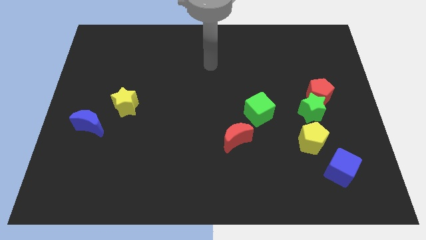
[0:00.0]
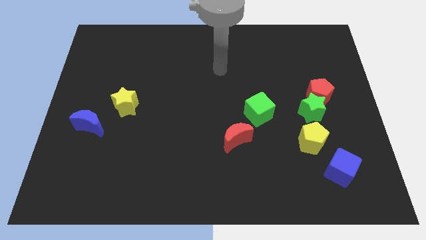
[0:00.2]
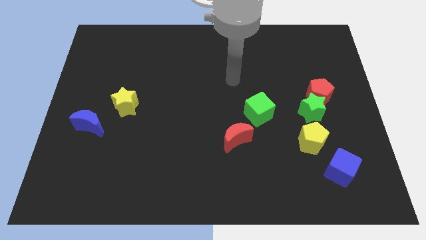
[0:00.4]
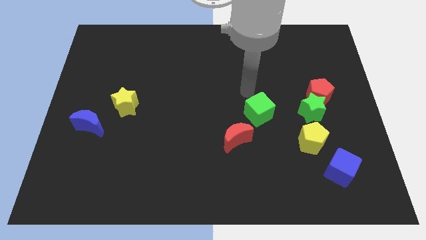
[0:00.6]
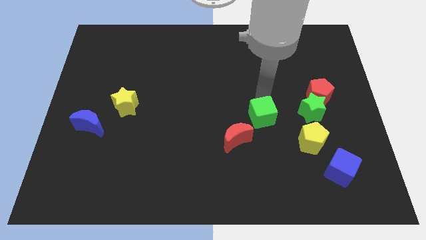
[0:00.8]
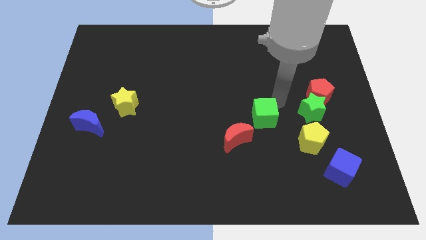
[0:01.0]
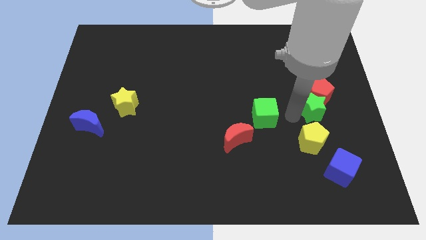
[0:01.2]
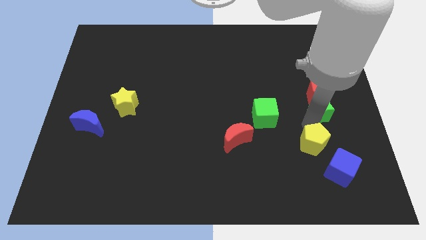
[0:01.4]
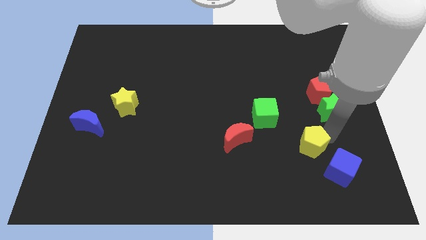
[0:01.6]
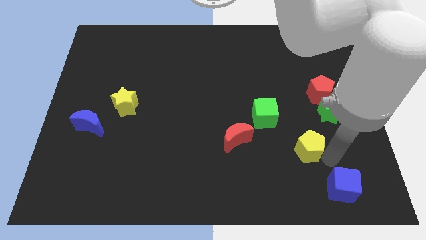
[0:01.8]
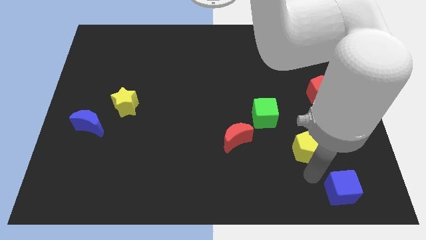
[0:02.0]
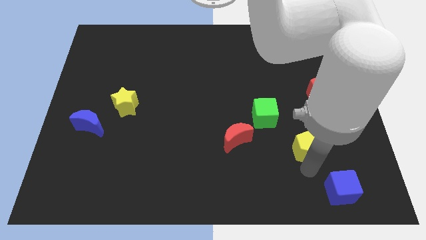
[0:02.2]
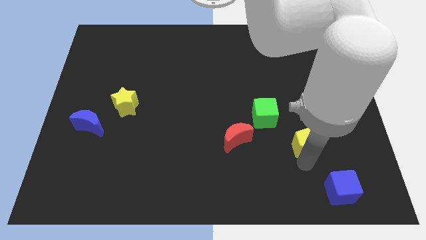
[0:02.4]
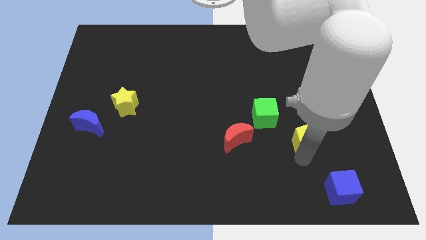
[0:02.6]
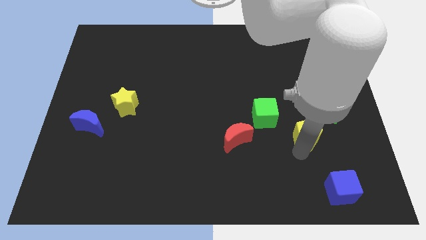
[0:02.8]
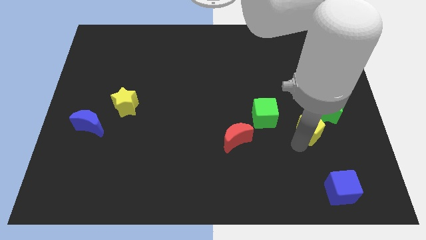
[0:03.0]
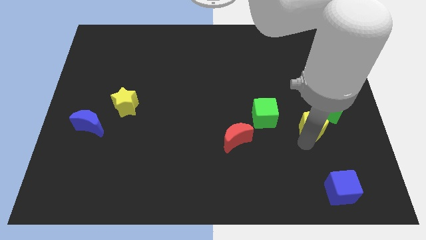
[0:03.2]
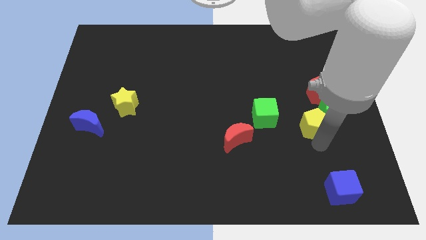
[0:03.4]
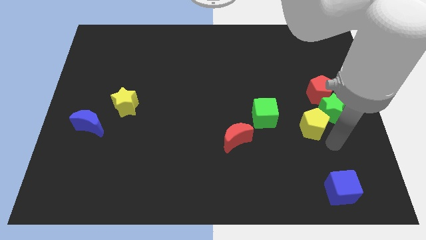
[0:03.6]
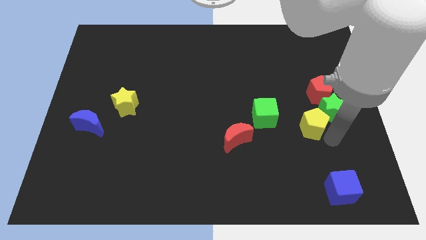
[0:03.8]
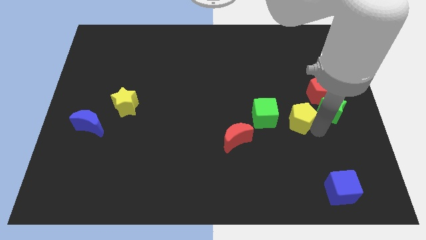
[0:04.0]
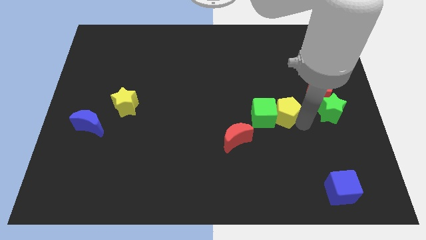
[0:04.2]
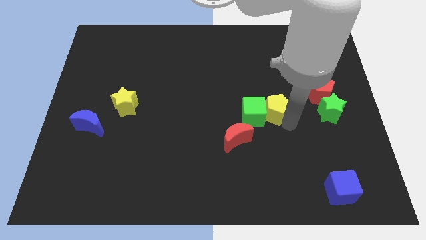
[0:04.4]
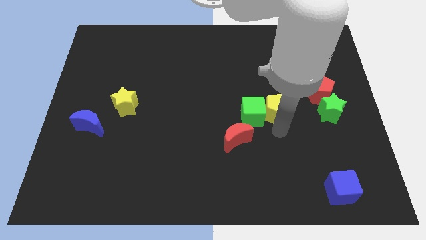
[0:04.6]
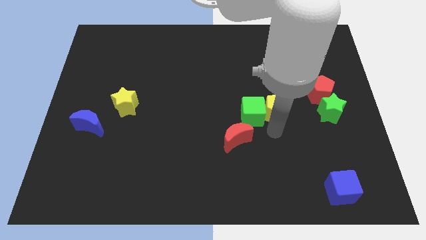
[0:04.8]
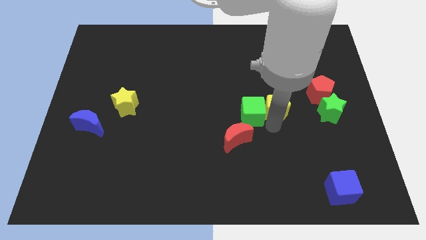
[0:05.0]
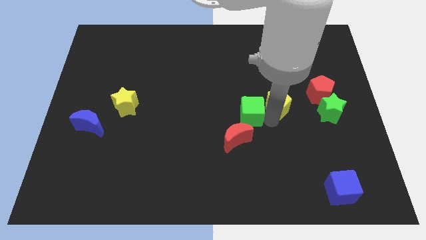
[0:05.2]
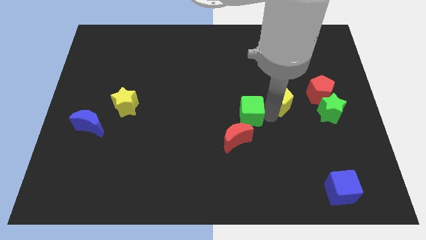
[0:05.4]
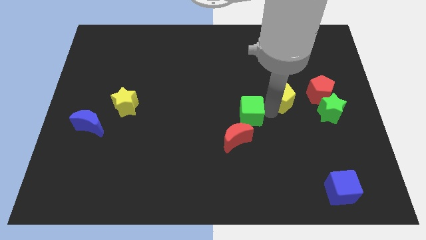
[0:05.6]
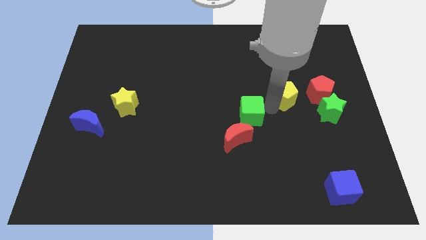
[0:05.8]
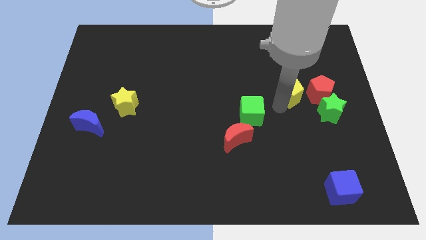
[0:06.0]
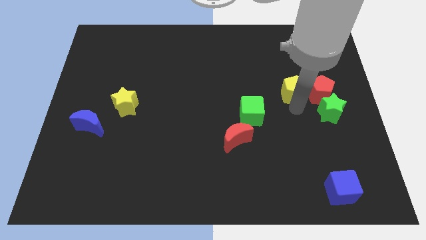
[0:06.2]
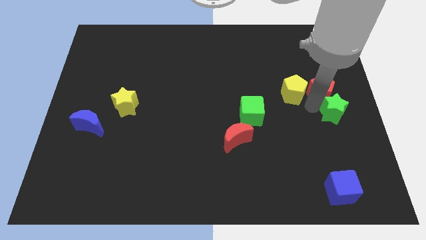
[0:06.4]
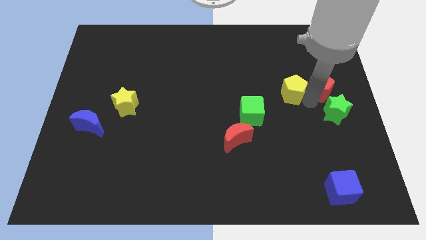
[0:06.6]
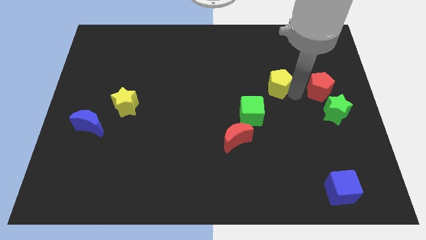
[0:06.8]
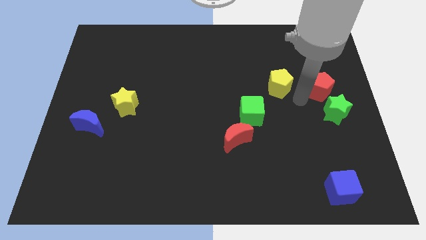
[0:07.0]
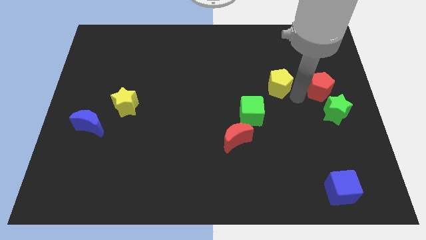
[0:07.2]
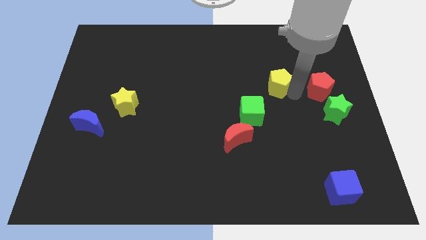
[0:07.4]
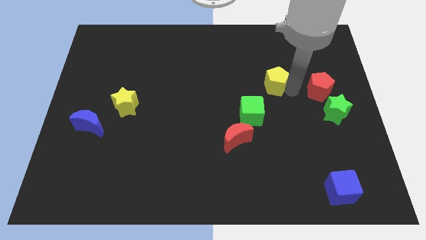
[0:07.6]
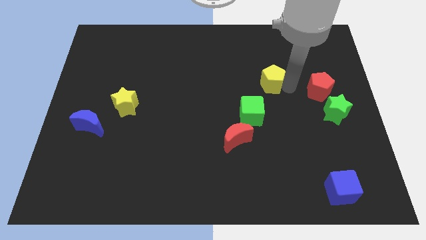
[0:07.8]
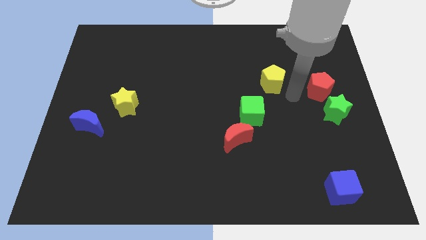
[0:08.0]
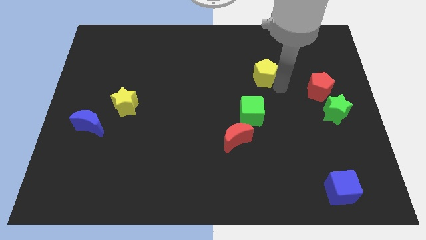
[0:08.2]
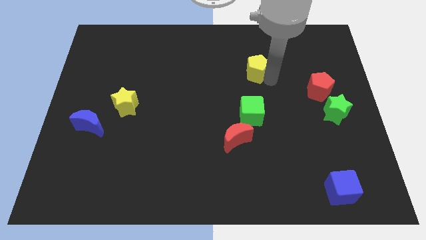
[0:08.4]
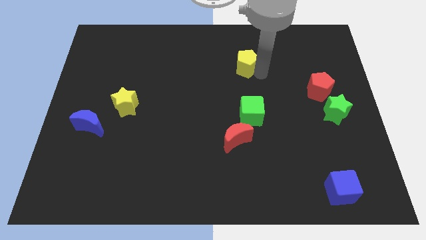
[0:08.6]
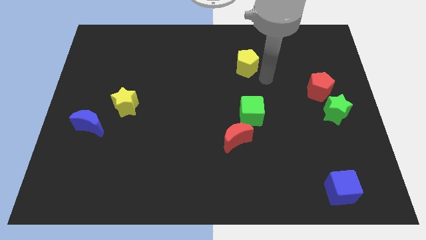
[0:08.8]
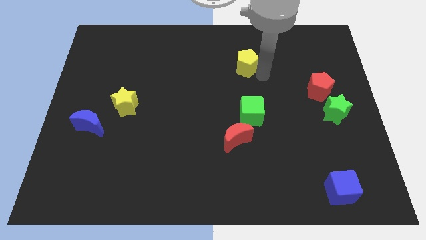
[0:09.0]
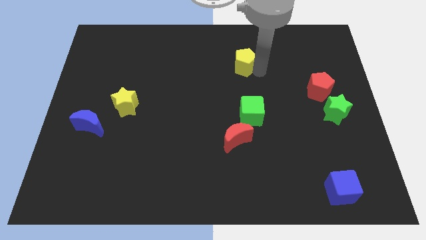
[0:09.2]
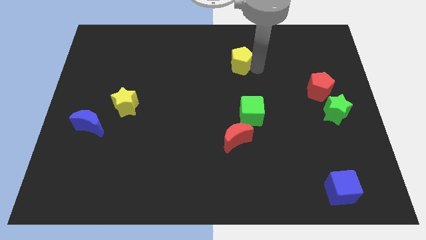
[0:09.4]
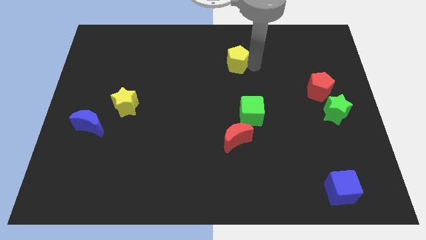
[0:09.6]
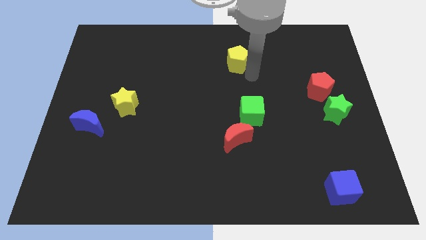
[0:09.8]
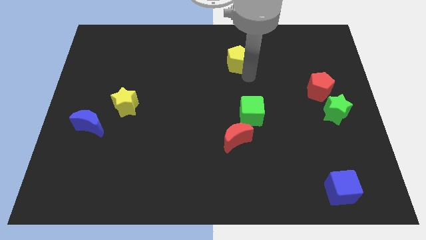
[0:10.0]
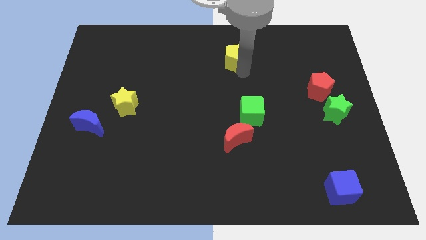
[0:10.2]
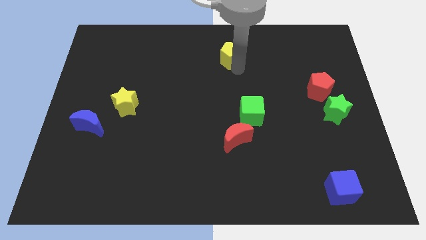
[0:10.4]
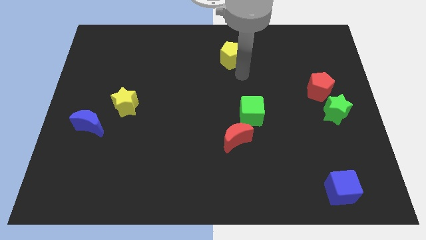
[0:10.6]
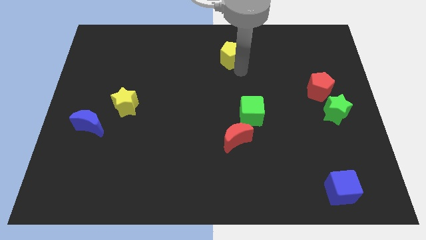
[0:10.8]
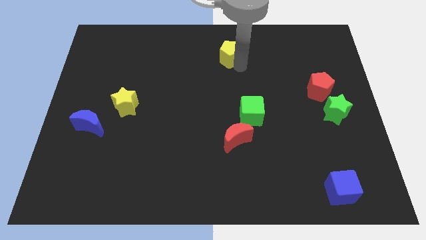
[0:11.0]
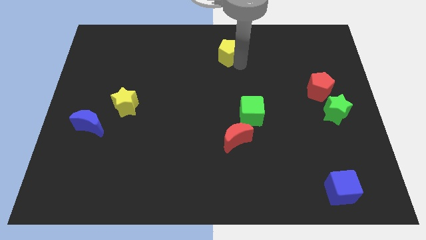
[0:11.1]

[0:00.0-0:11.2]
move the yellow pentagon to the top side

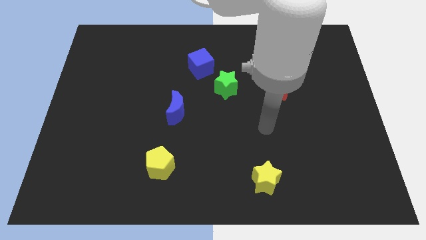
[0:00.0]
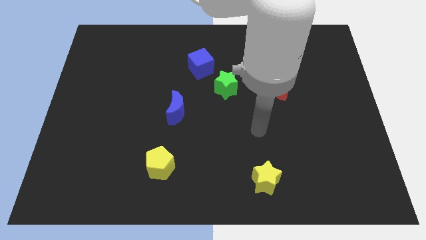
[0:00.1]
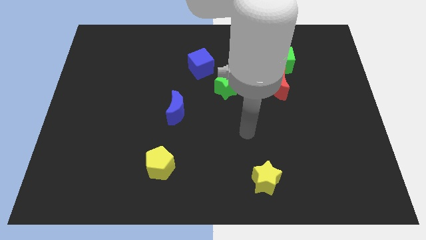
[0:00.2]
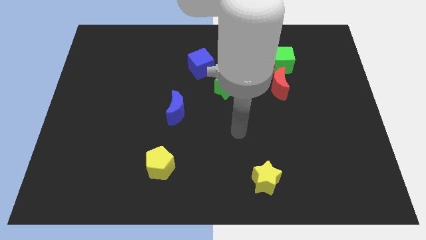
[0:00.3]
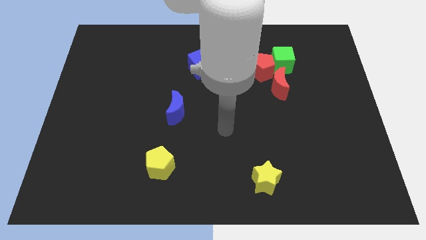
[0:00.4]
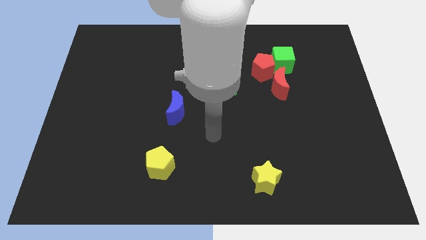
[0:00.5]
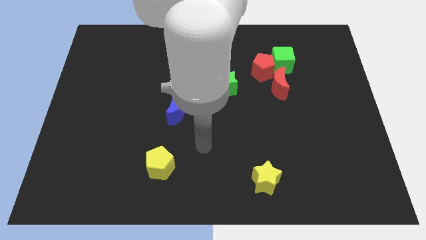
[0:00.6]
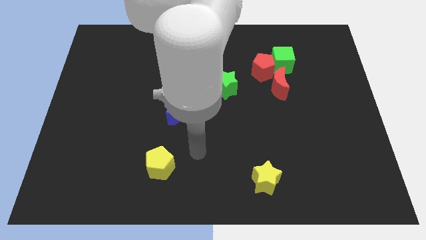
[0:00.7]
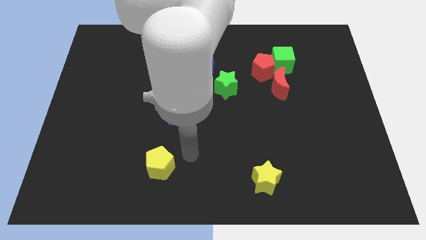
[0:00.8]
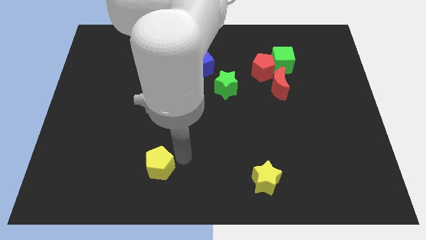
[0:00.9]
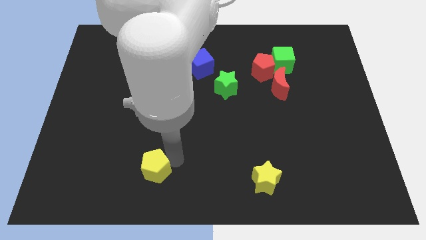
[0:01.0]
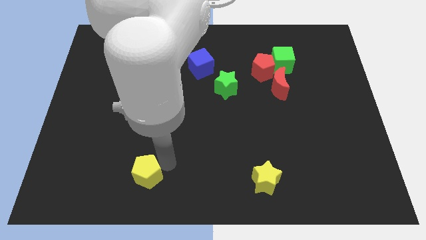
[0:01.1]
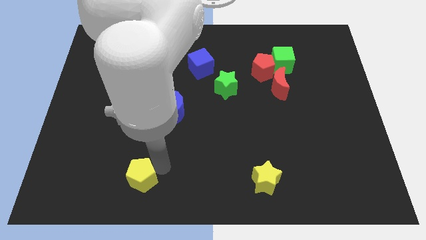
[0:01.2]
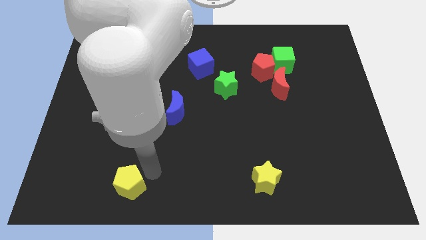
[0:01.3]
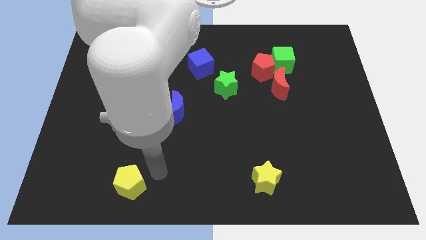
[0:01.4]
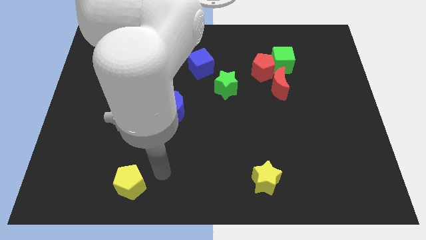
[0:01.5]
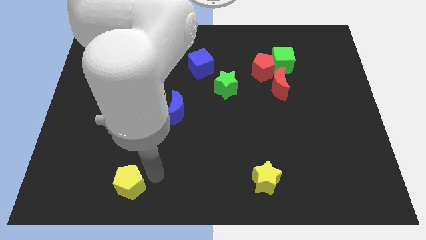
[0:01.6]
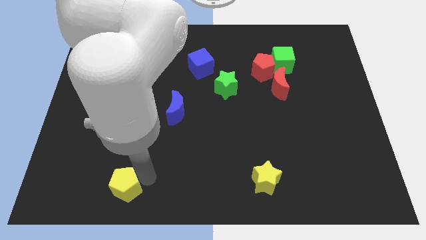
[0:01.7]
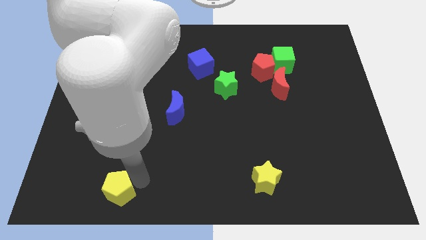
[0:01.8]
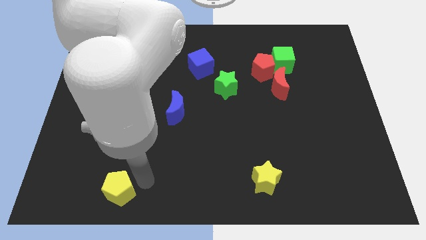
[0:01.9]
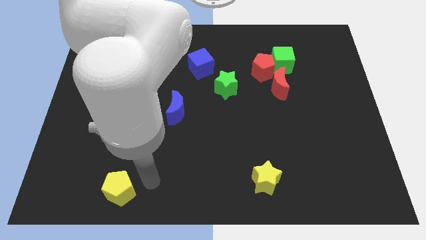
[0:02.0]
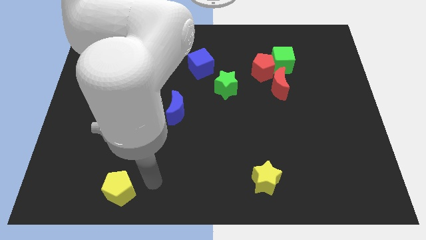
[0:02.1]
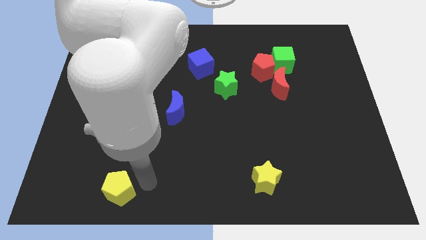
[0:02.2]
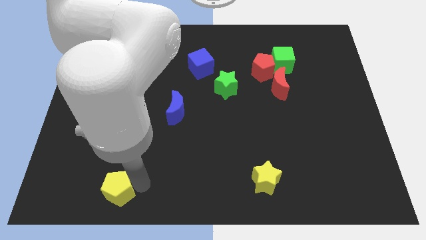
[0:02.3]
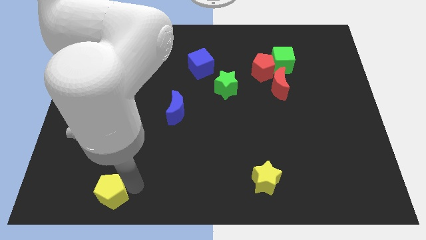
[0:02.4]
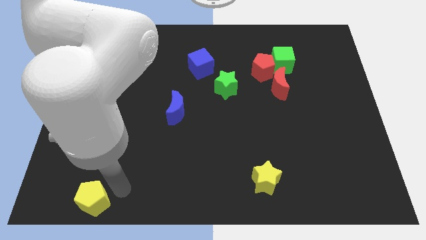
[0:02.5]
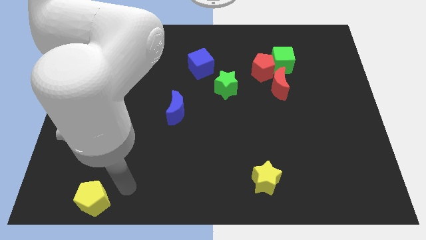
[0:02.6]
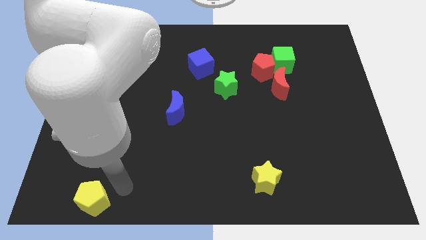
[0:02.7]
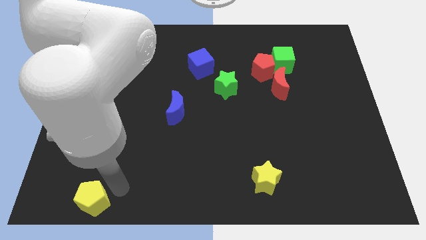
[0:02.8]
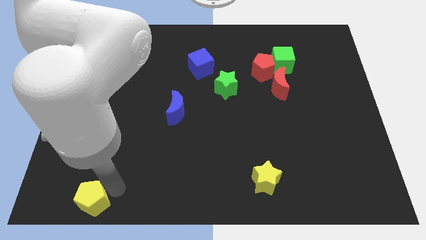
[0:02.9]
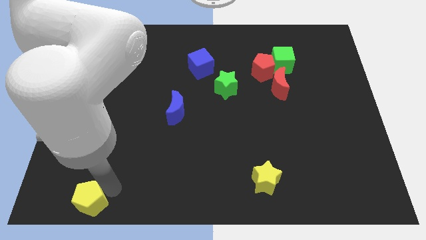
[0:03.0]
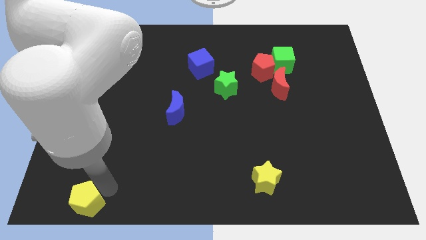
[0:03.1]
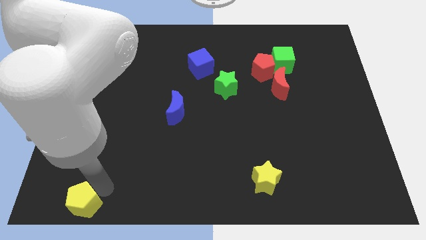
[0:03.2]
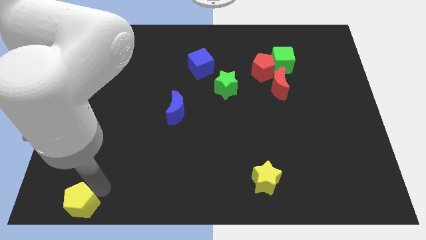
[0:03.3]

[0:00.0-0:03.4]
slide the yellow pentagon to the lower left corner
